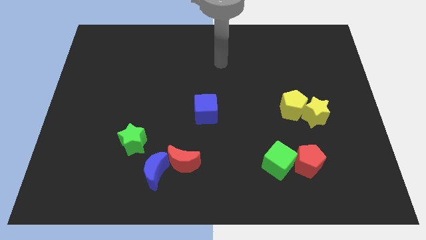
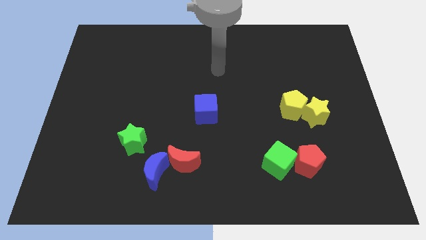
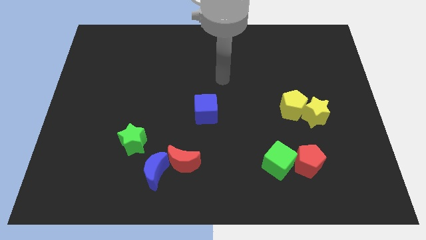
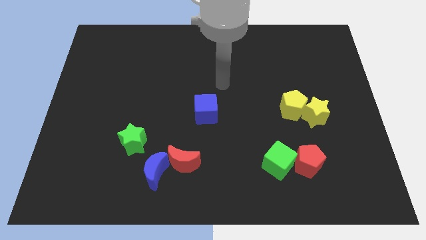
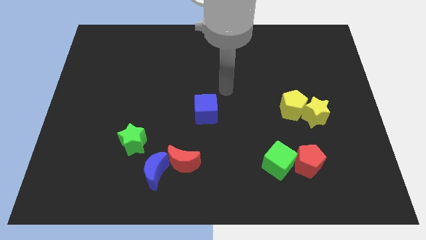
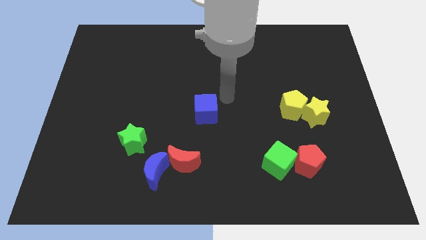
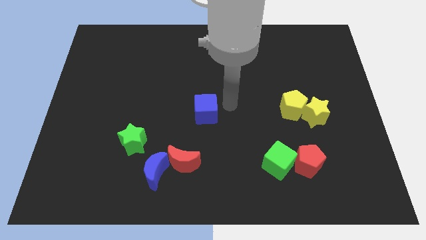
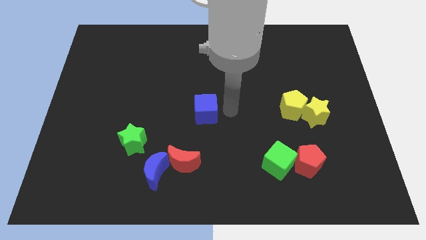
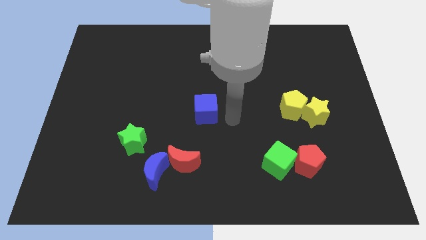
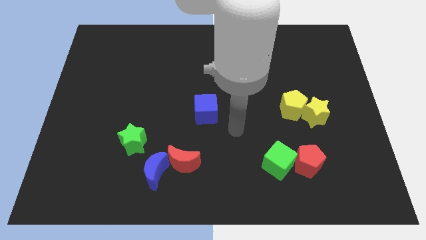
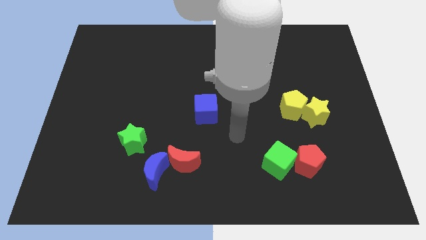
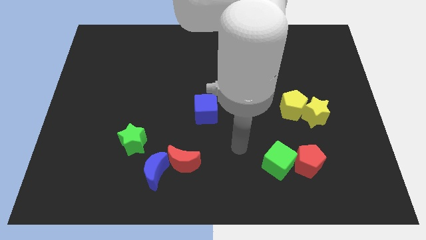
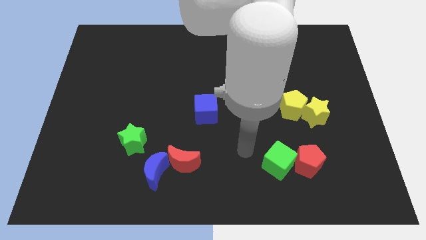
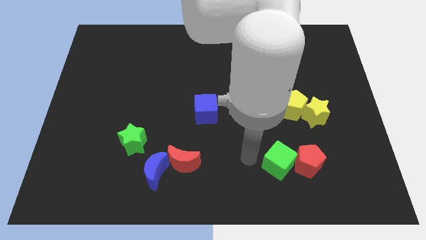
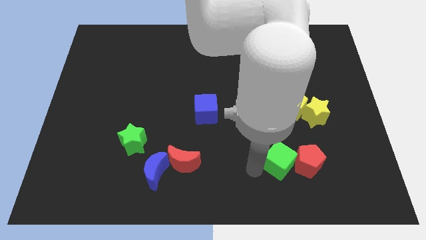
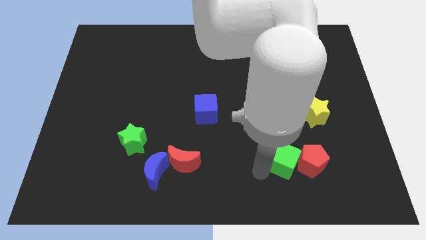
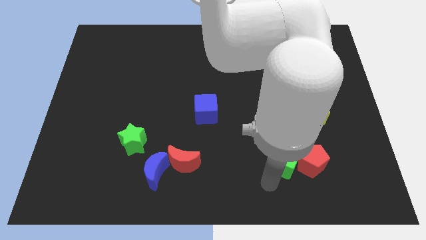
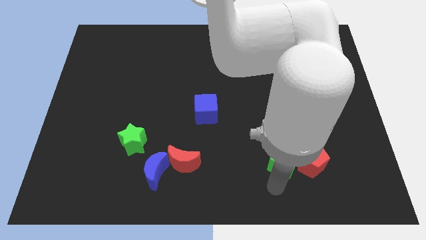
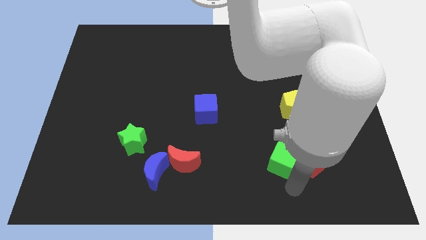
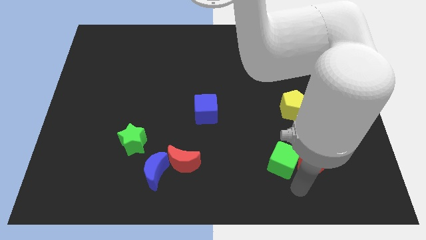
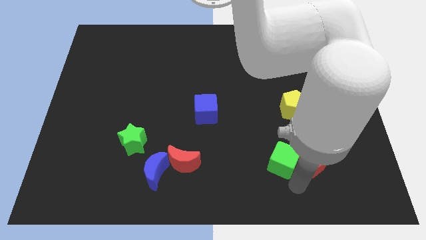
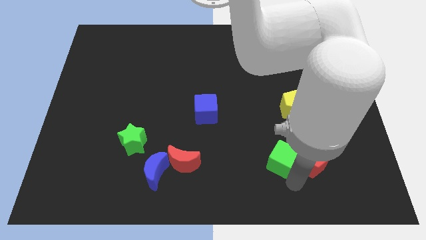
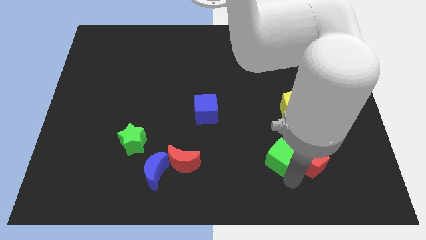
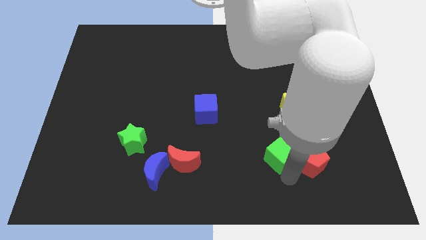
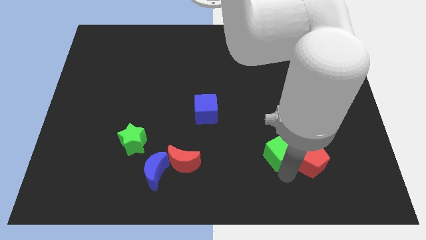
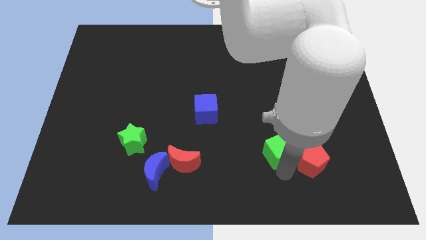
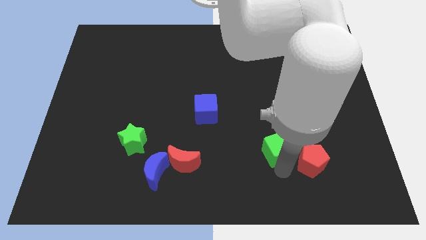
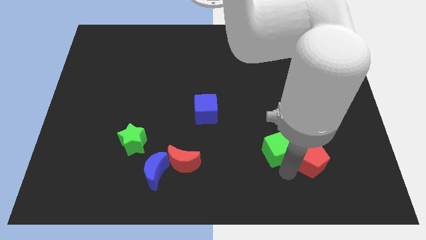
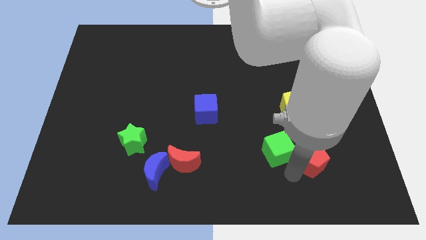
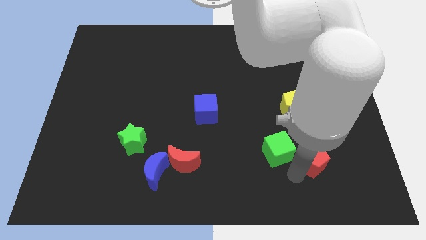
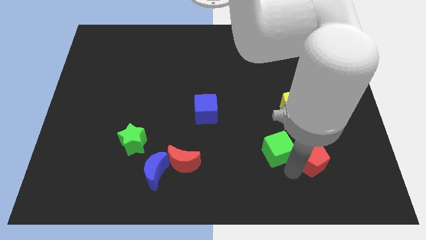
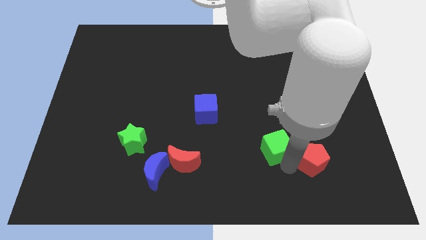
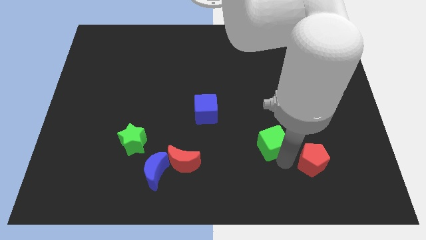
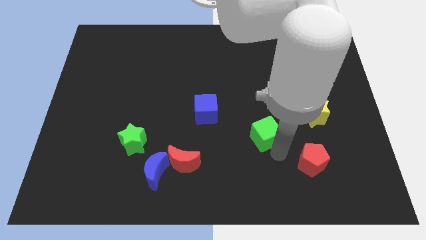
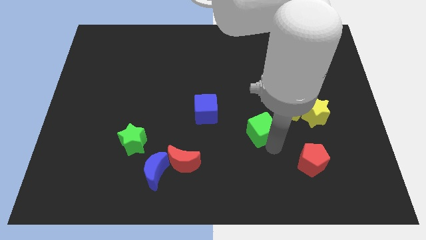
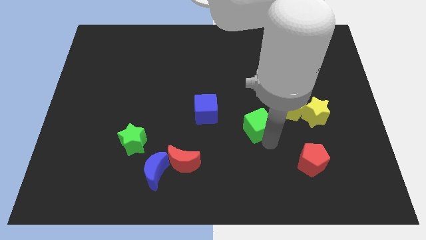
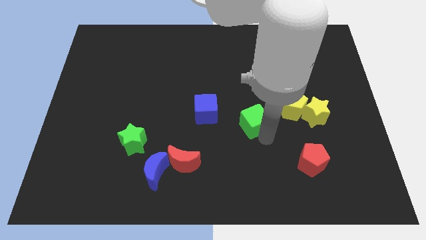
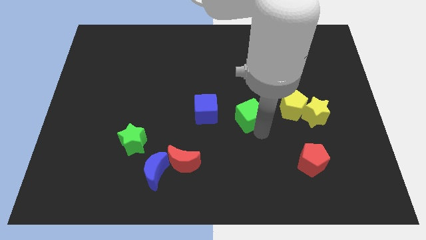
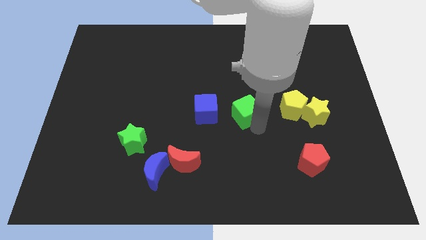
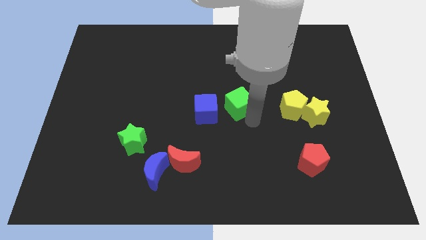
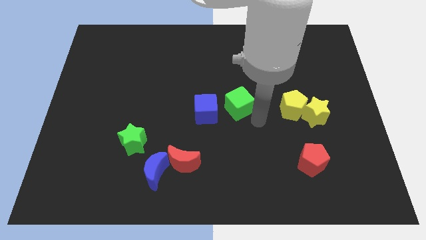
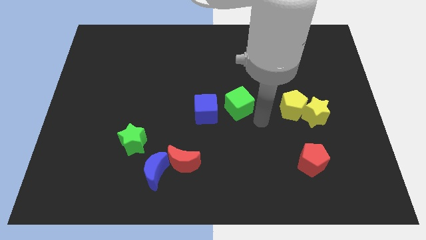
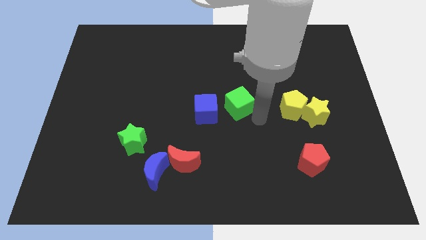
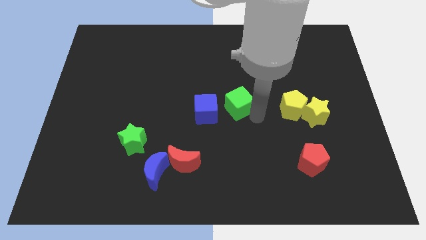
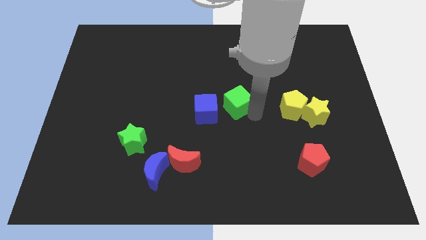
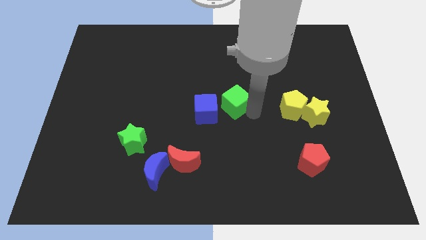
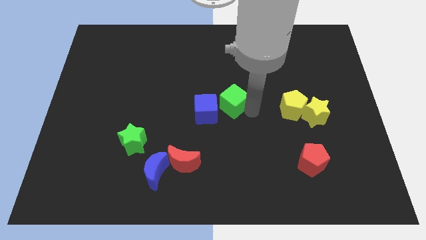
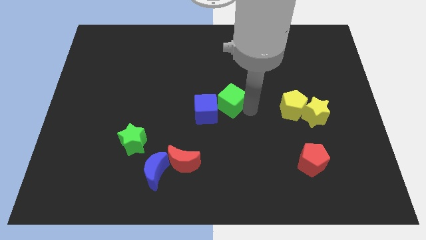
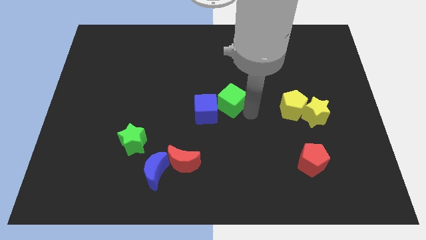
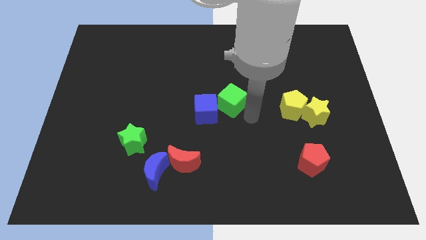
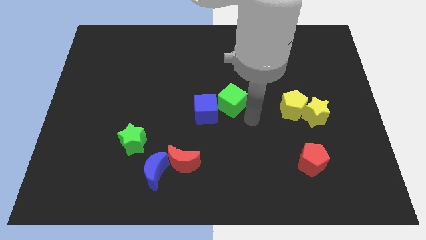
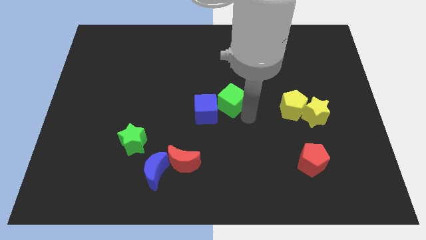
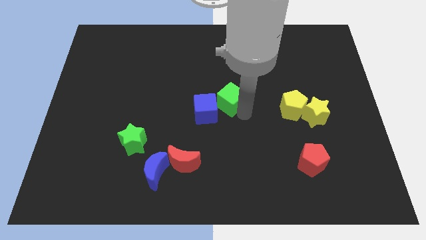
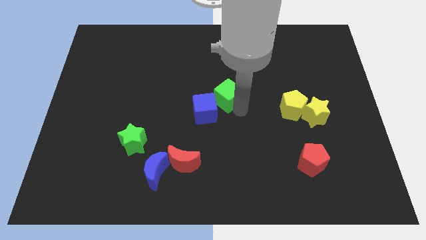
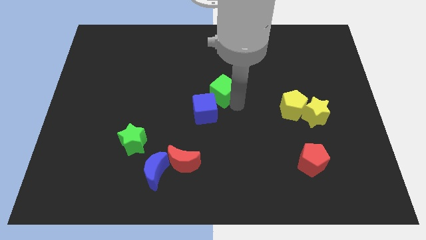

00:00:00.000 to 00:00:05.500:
move the green cube up and left

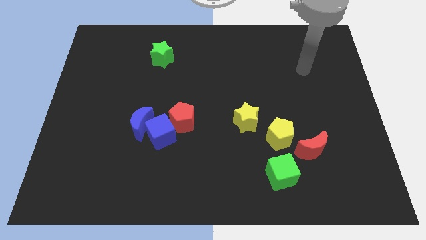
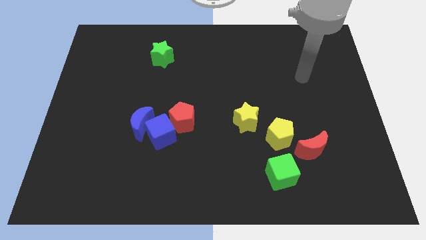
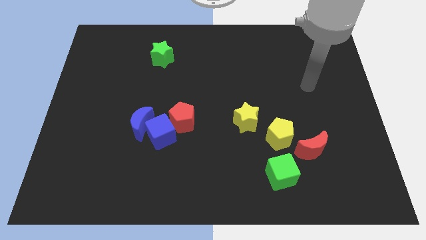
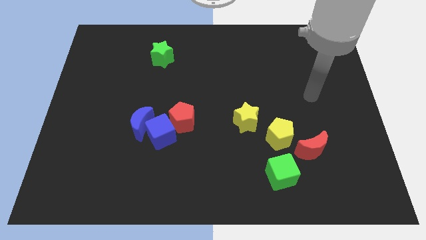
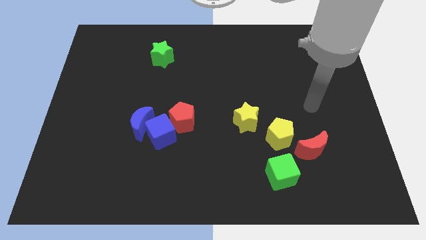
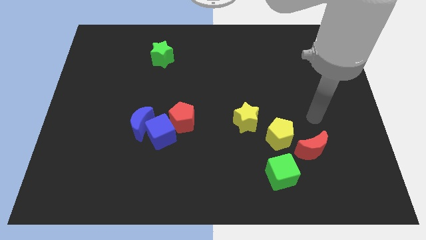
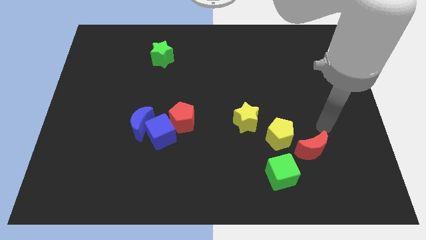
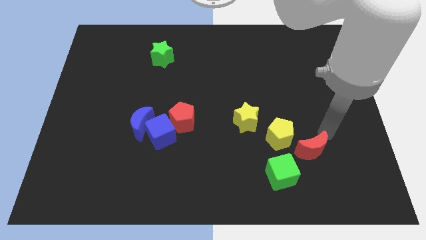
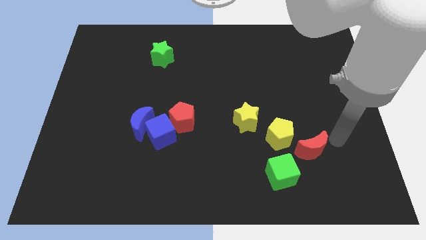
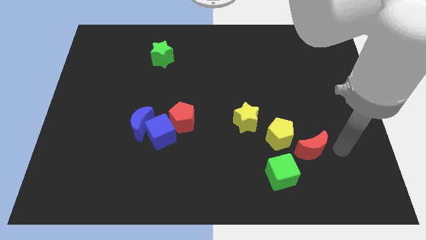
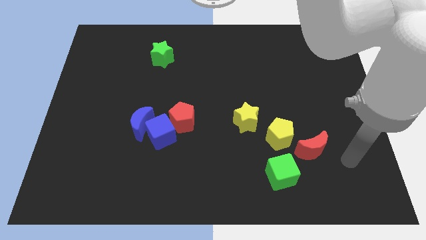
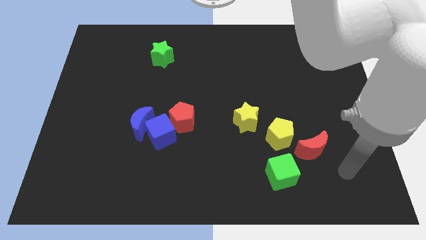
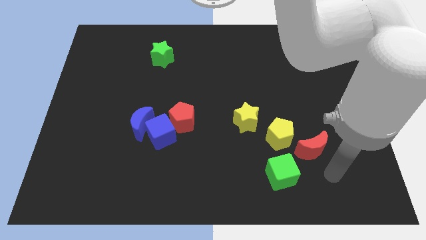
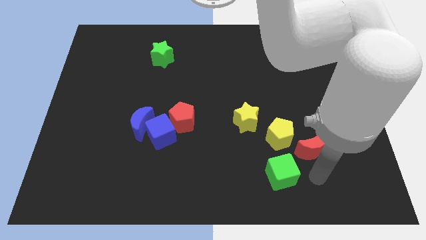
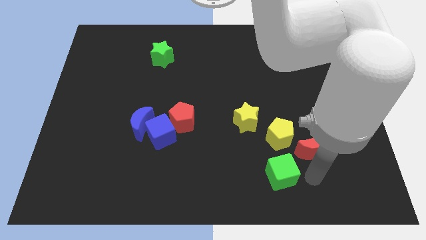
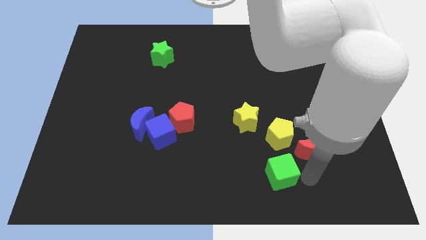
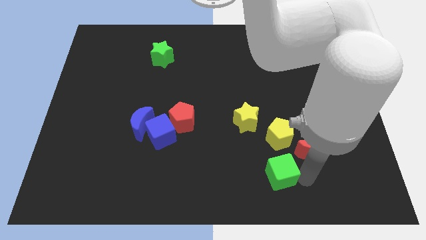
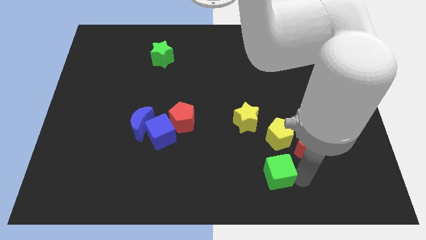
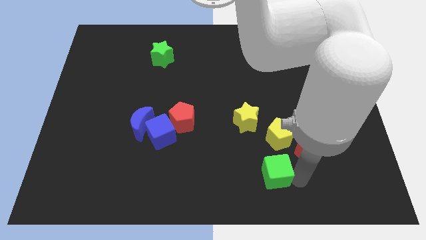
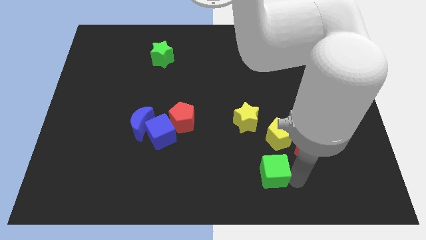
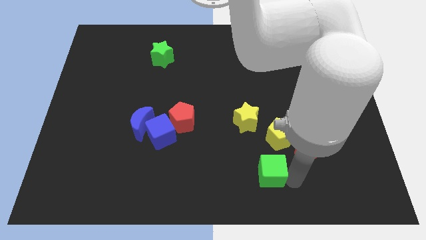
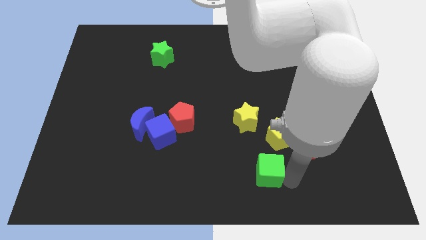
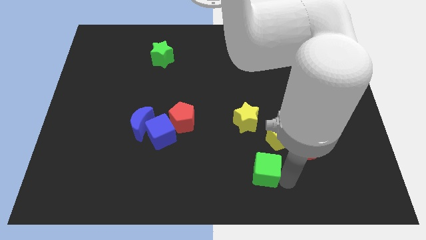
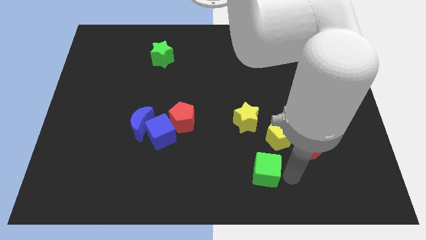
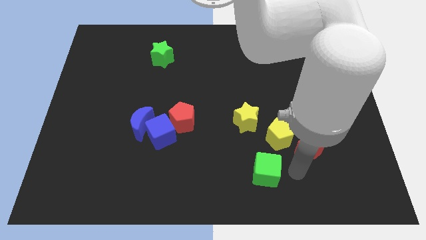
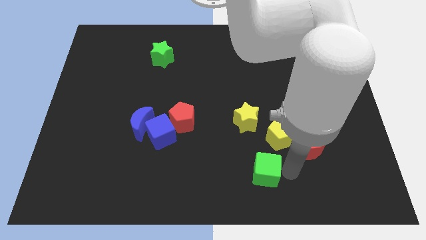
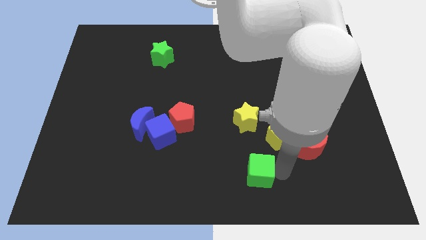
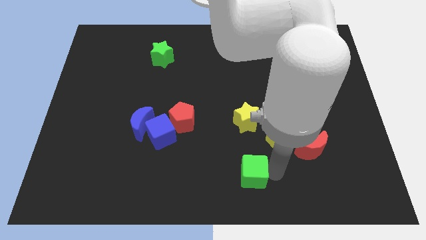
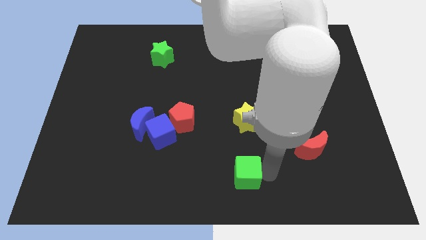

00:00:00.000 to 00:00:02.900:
move the green cube left slightly
